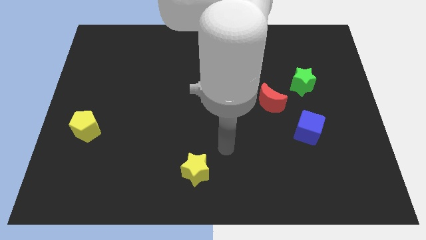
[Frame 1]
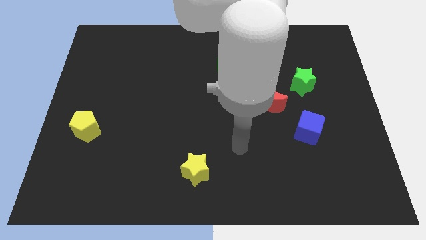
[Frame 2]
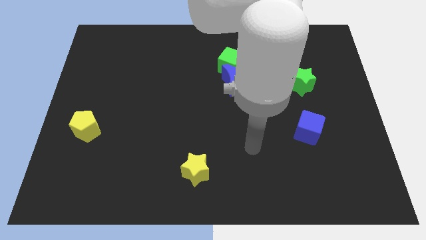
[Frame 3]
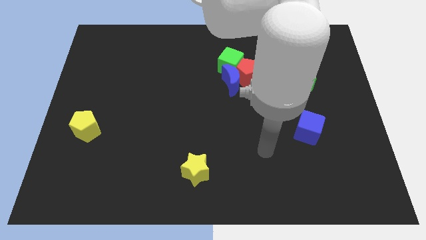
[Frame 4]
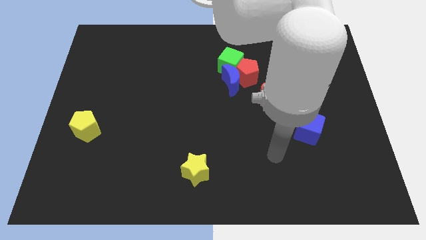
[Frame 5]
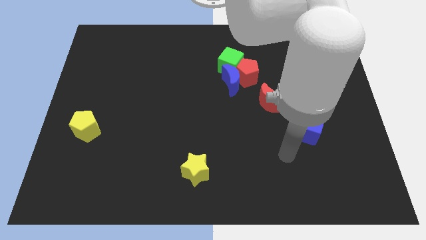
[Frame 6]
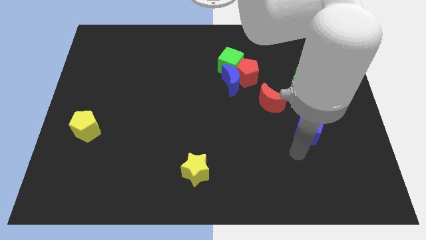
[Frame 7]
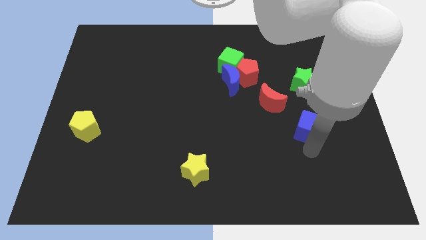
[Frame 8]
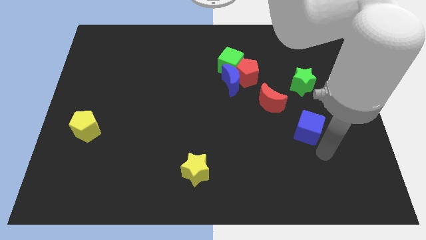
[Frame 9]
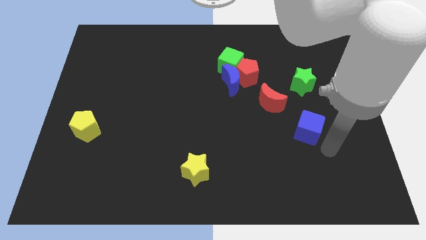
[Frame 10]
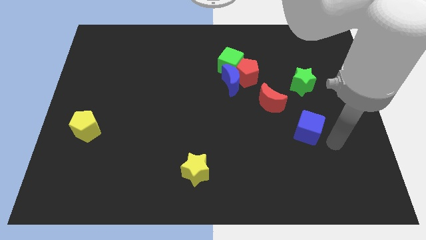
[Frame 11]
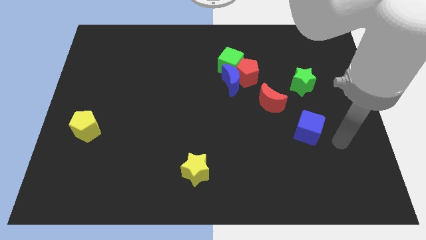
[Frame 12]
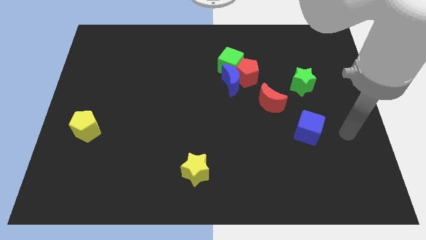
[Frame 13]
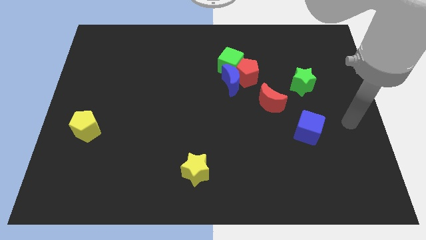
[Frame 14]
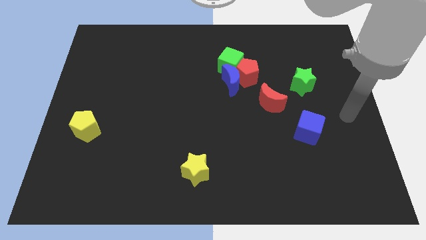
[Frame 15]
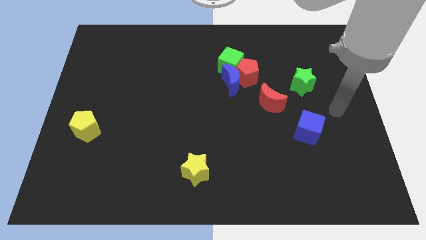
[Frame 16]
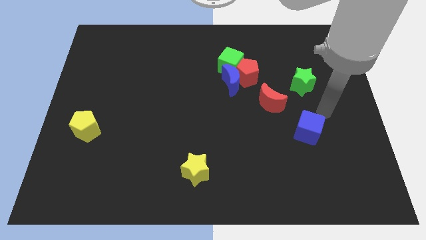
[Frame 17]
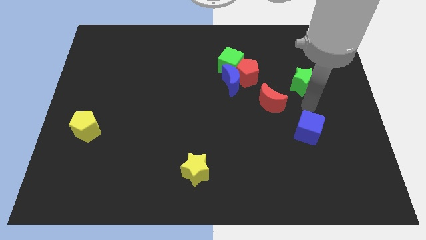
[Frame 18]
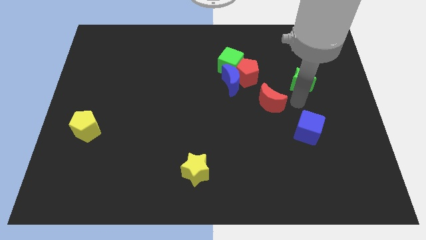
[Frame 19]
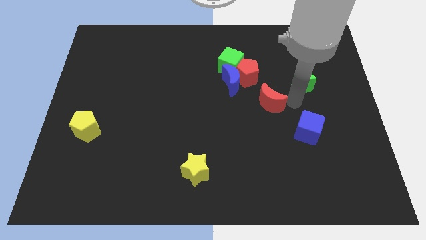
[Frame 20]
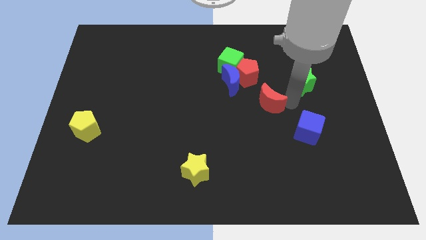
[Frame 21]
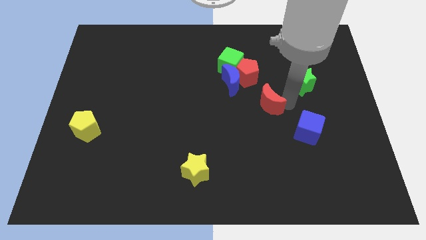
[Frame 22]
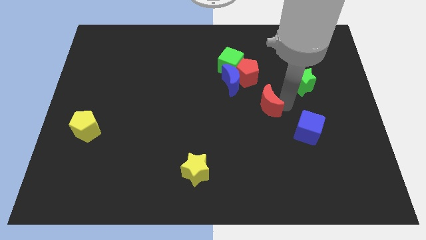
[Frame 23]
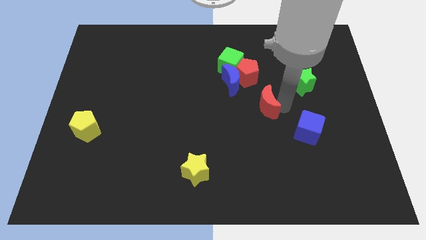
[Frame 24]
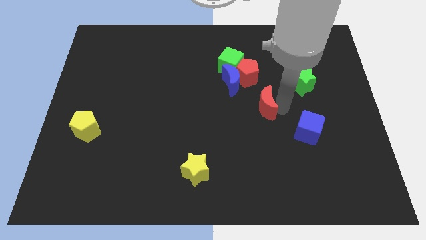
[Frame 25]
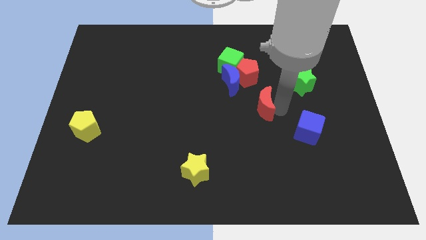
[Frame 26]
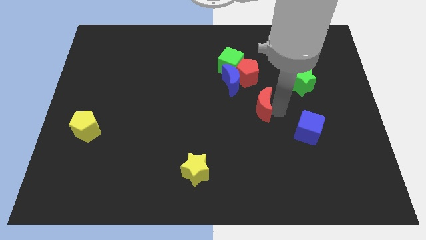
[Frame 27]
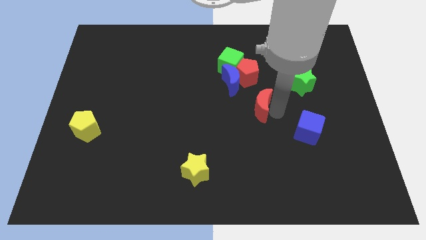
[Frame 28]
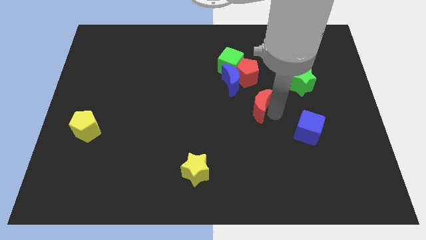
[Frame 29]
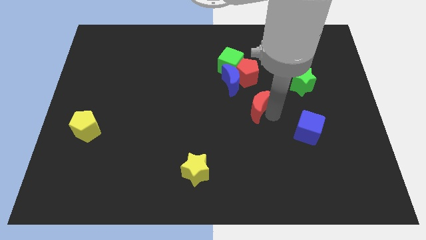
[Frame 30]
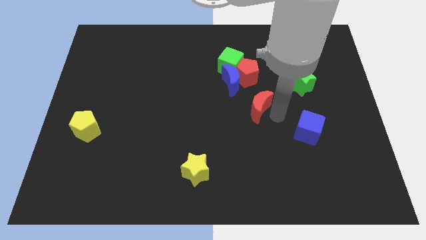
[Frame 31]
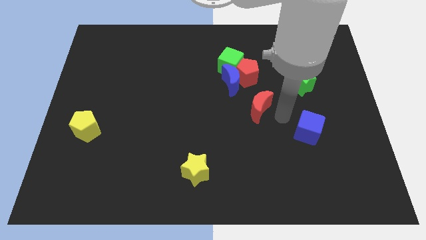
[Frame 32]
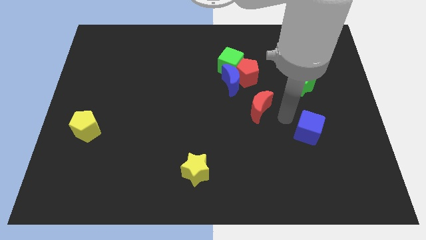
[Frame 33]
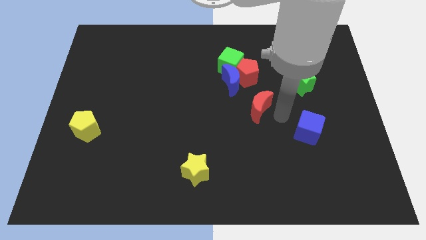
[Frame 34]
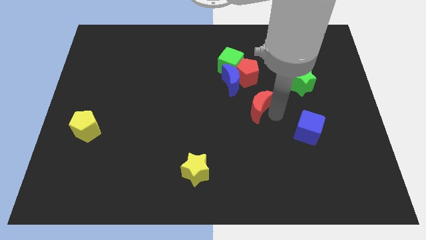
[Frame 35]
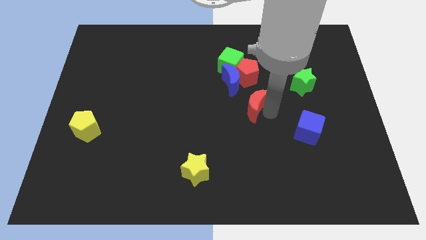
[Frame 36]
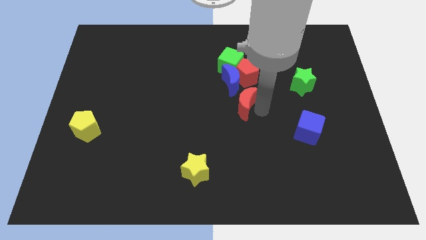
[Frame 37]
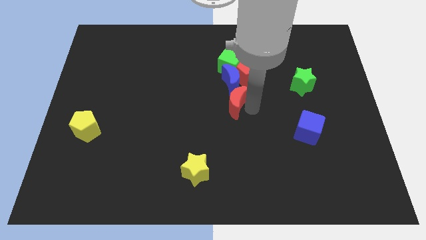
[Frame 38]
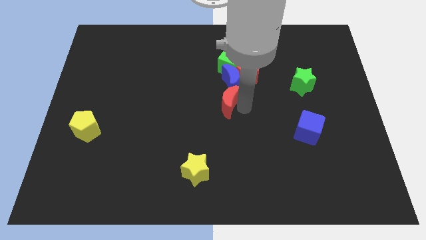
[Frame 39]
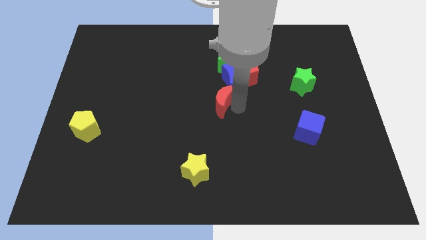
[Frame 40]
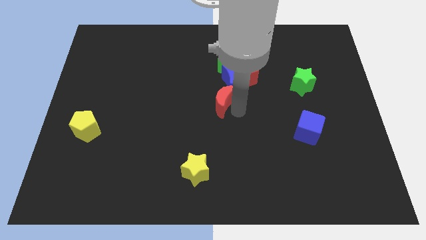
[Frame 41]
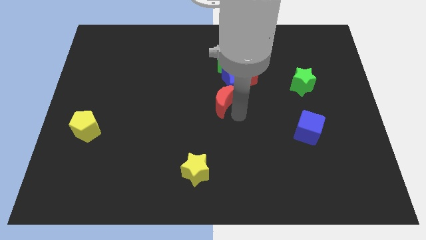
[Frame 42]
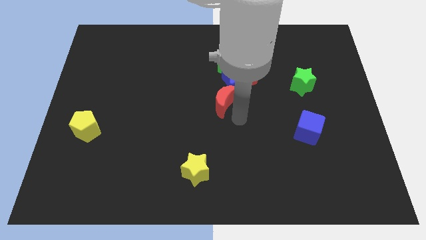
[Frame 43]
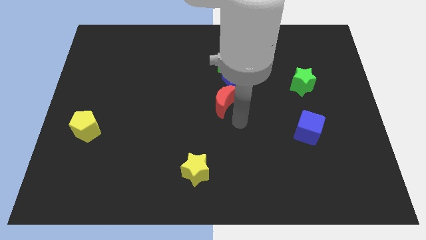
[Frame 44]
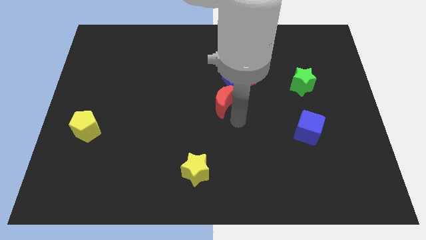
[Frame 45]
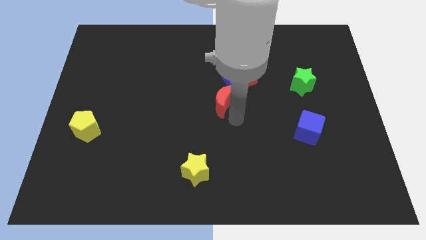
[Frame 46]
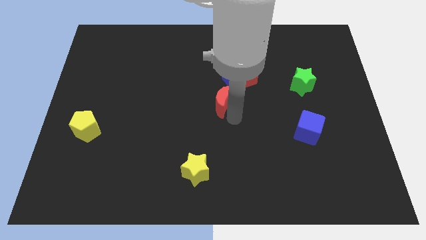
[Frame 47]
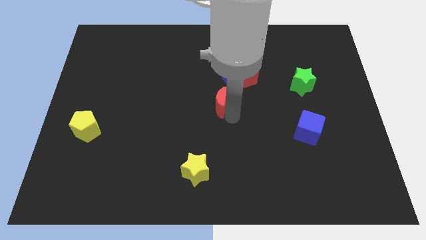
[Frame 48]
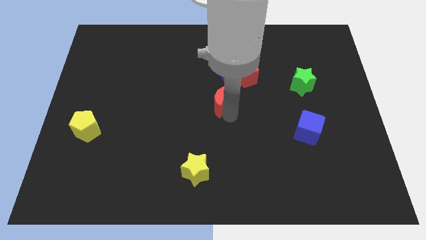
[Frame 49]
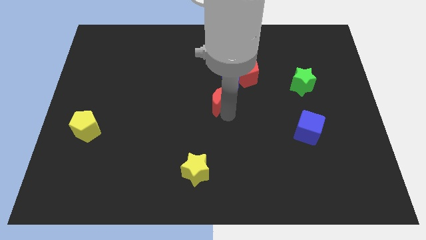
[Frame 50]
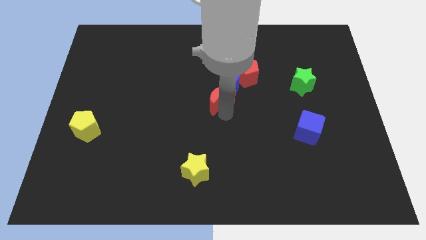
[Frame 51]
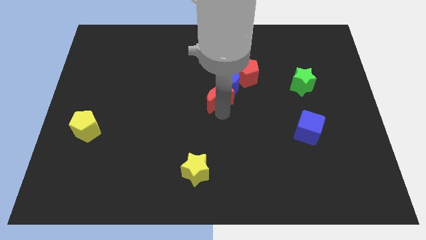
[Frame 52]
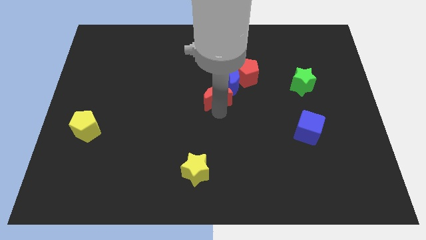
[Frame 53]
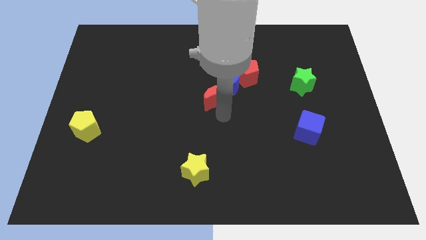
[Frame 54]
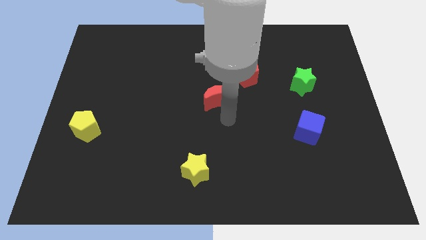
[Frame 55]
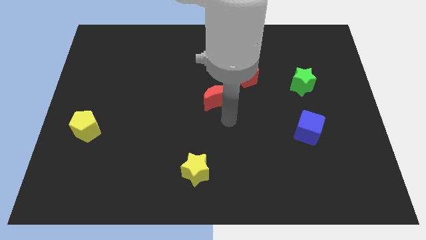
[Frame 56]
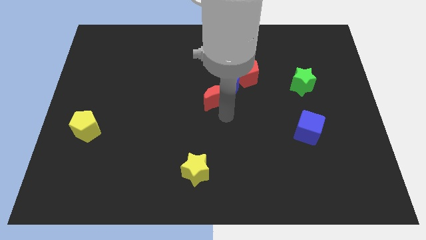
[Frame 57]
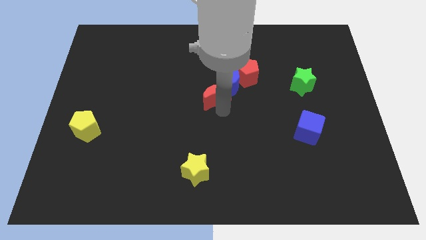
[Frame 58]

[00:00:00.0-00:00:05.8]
push the red moon up and then to the left somewhat

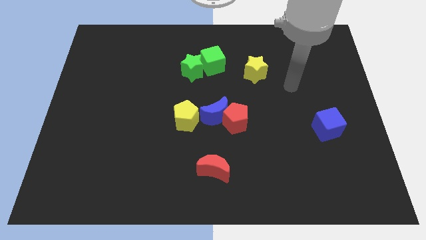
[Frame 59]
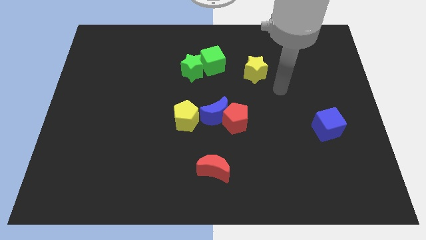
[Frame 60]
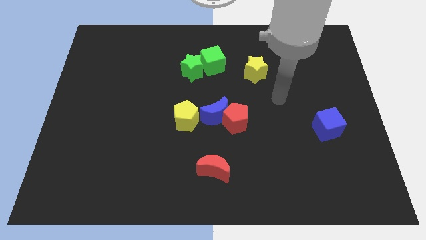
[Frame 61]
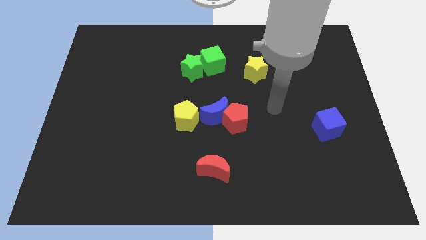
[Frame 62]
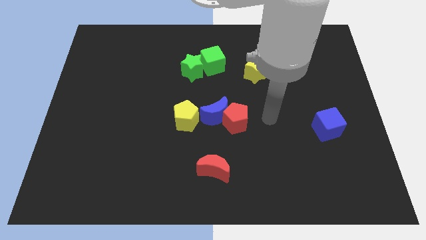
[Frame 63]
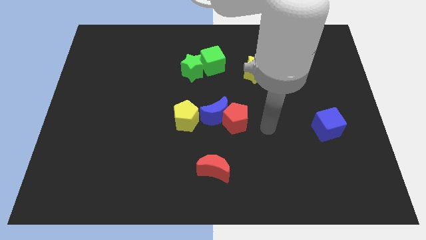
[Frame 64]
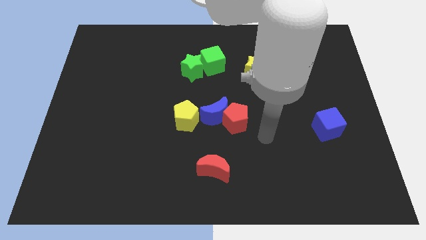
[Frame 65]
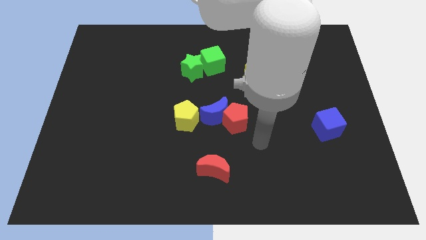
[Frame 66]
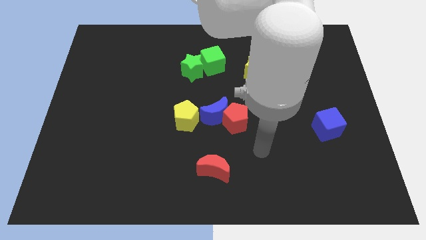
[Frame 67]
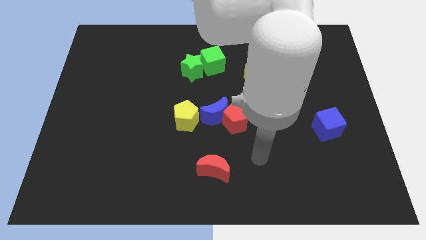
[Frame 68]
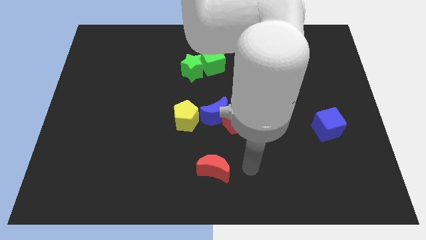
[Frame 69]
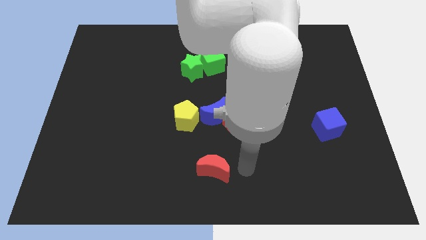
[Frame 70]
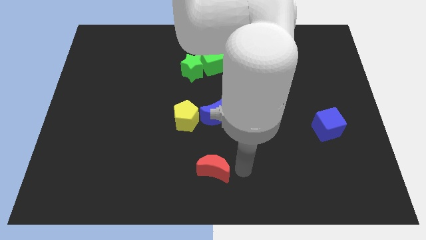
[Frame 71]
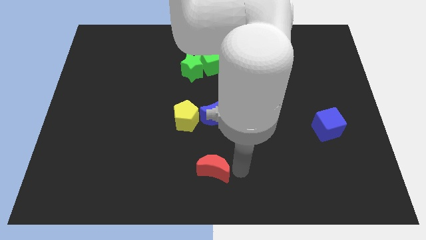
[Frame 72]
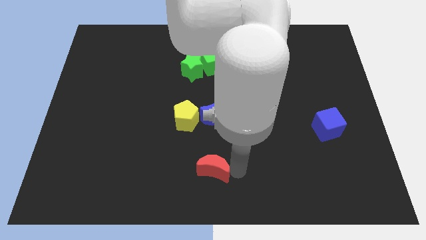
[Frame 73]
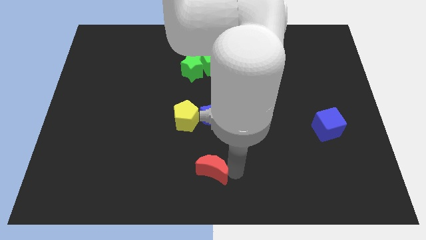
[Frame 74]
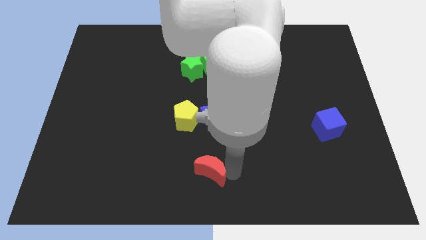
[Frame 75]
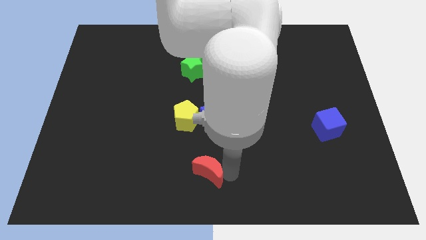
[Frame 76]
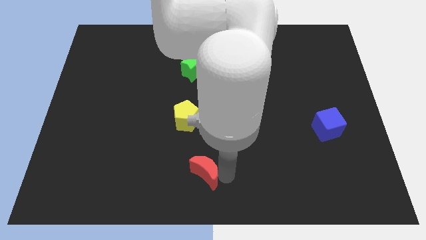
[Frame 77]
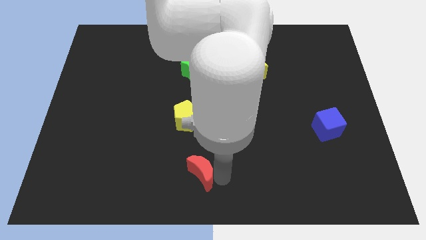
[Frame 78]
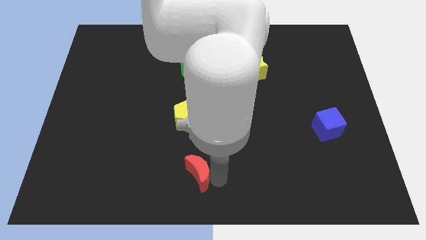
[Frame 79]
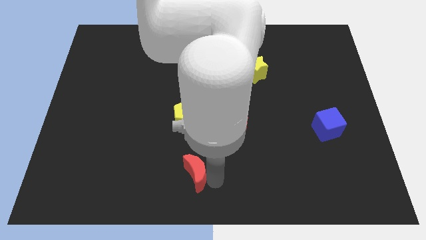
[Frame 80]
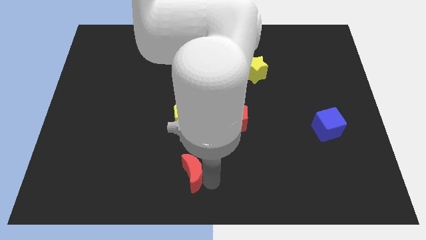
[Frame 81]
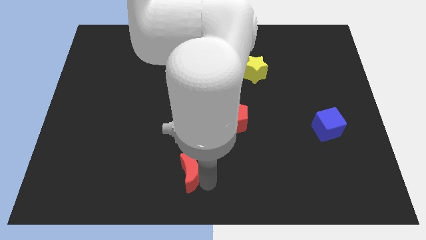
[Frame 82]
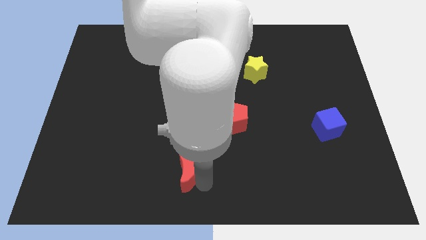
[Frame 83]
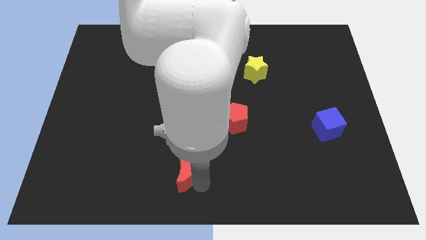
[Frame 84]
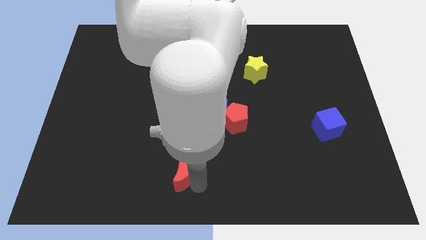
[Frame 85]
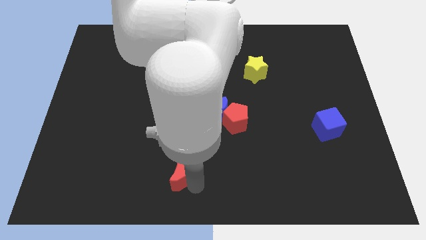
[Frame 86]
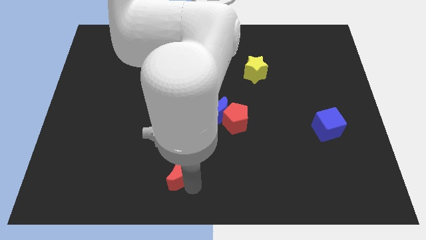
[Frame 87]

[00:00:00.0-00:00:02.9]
move the red moon to the left somewhat
